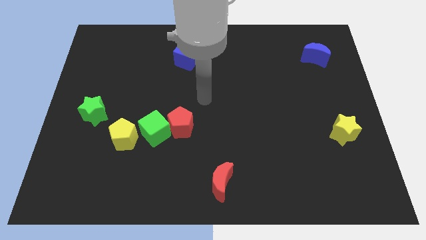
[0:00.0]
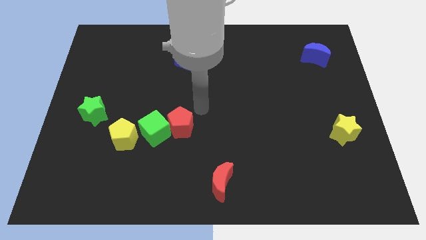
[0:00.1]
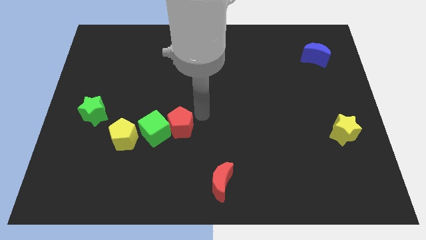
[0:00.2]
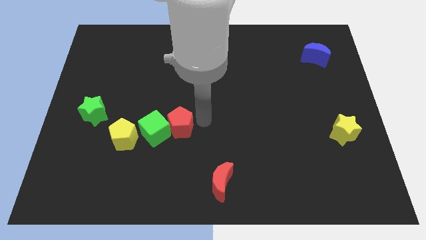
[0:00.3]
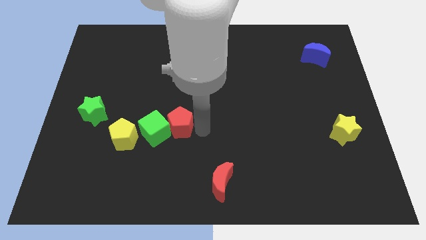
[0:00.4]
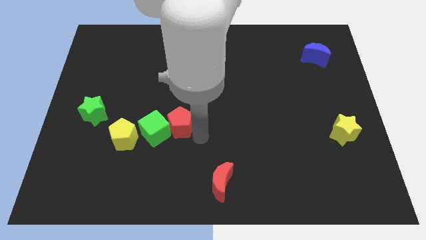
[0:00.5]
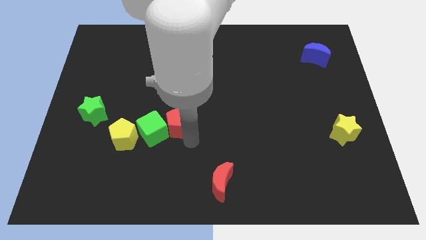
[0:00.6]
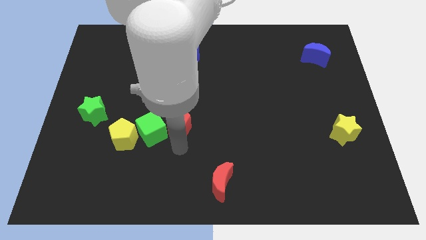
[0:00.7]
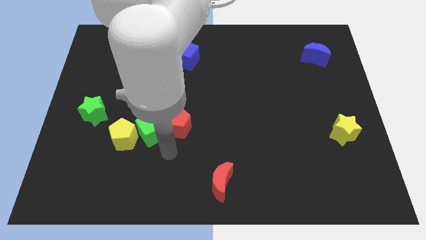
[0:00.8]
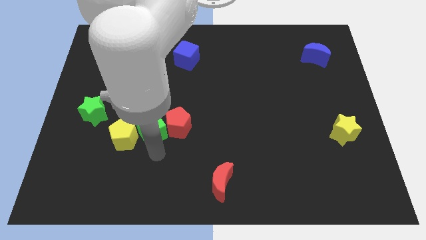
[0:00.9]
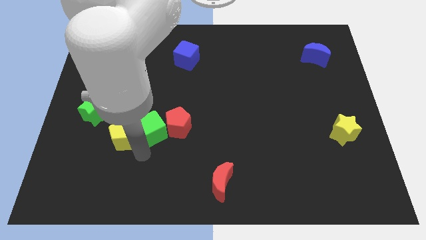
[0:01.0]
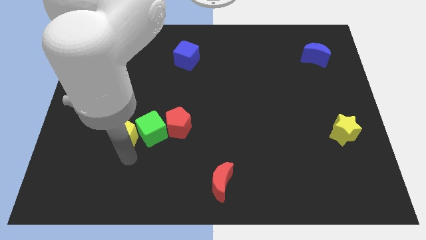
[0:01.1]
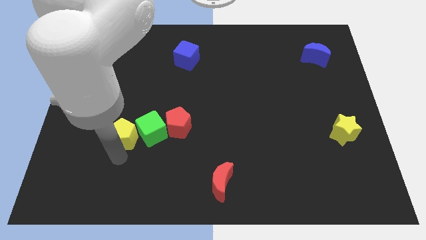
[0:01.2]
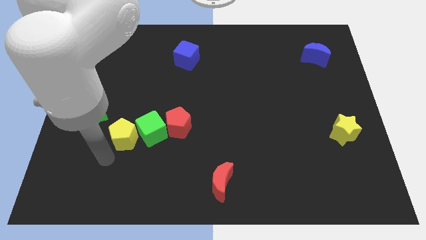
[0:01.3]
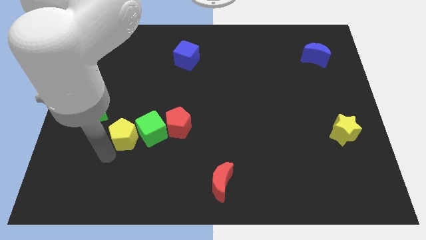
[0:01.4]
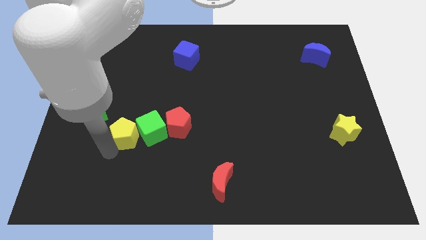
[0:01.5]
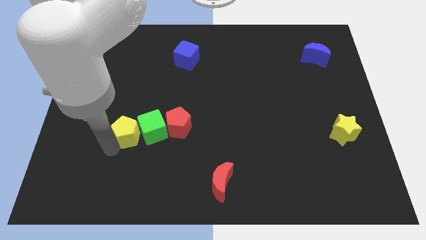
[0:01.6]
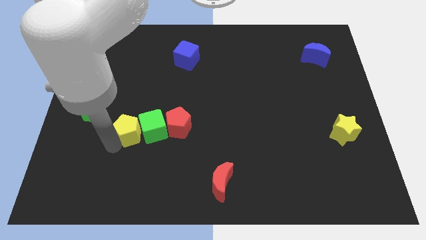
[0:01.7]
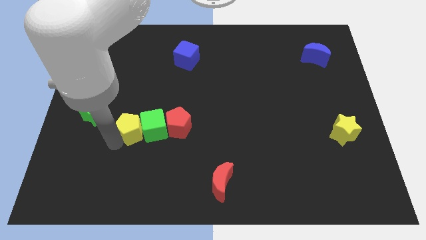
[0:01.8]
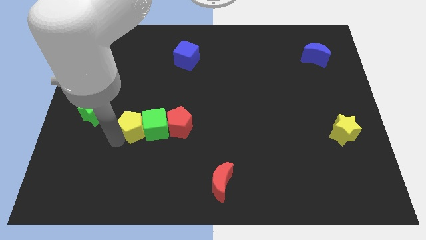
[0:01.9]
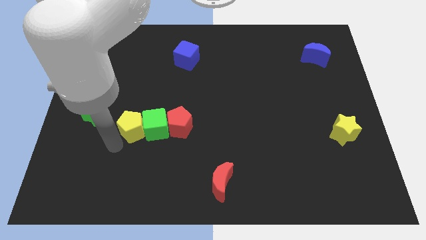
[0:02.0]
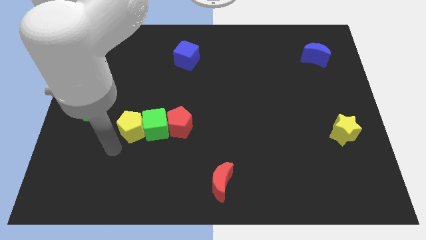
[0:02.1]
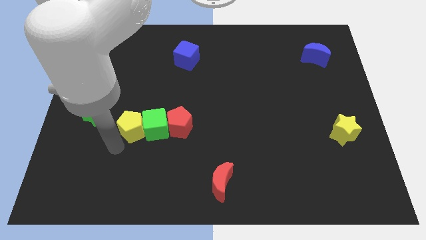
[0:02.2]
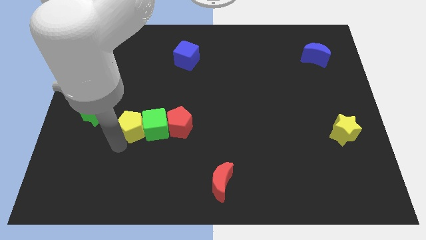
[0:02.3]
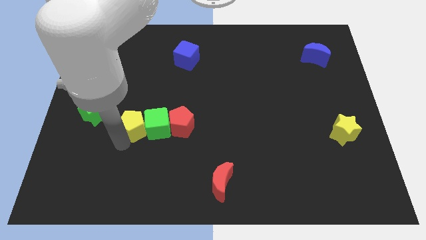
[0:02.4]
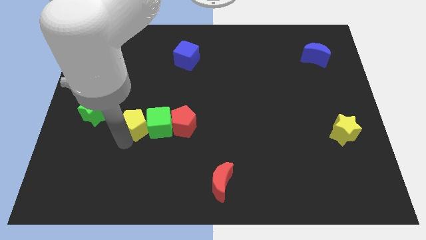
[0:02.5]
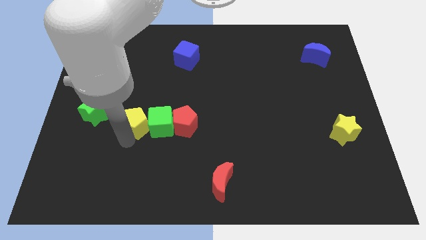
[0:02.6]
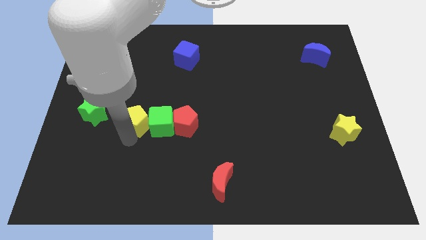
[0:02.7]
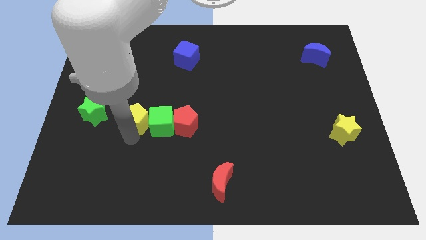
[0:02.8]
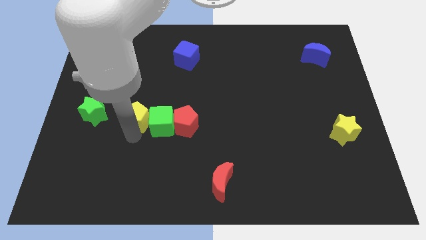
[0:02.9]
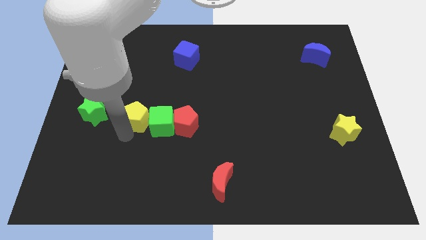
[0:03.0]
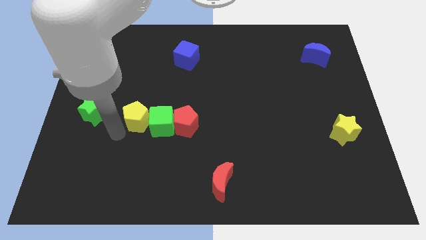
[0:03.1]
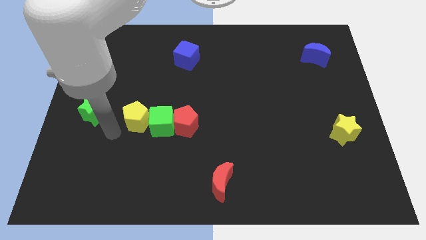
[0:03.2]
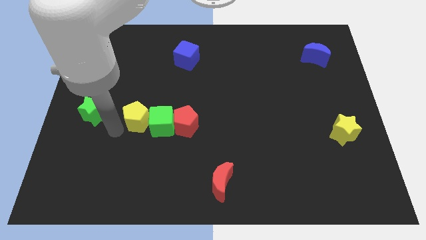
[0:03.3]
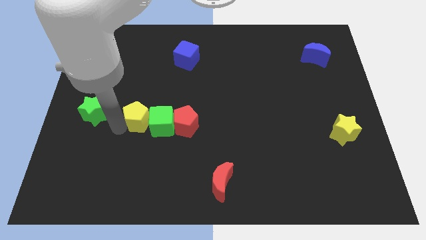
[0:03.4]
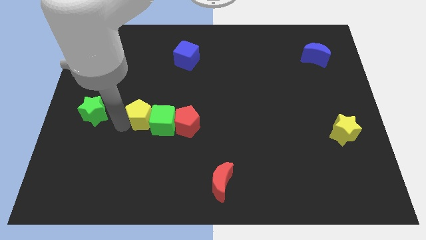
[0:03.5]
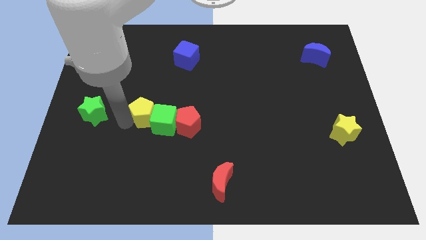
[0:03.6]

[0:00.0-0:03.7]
slide the yellow pentagon somewhat up and right

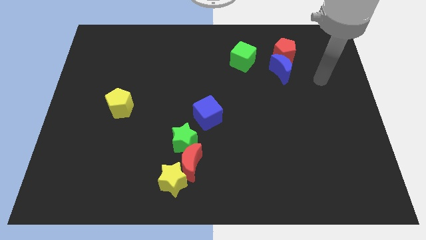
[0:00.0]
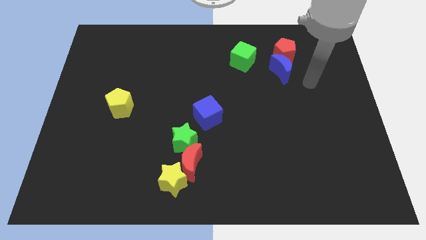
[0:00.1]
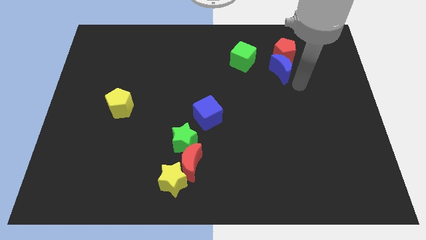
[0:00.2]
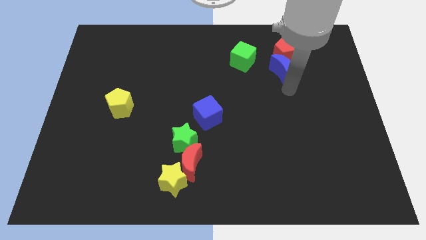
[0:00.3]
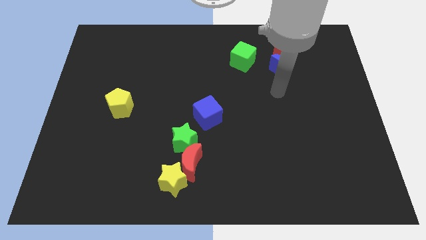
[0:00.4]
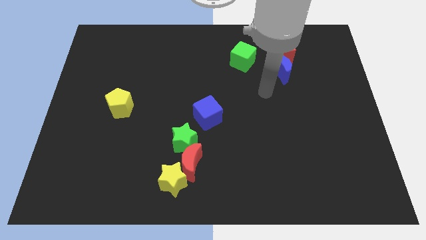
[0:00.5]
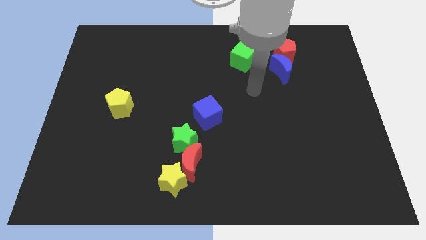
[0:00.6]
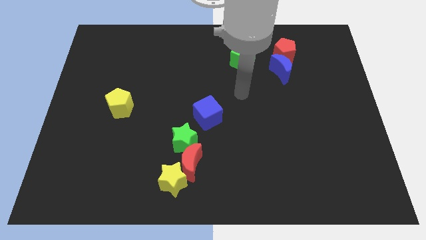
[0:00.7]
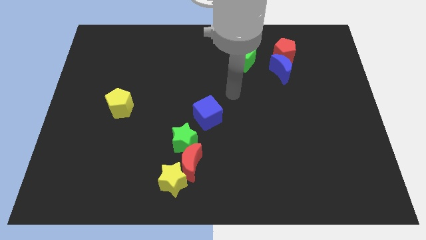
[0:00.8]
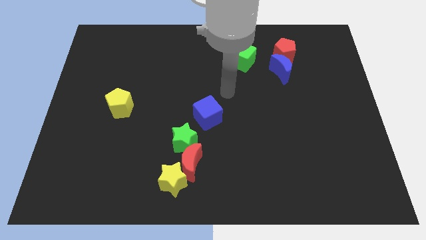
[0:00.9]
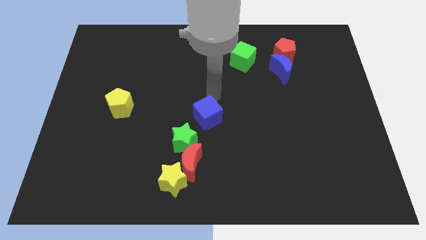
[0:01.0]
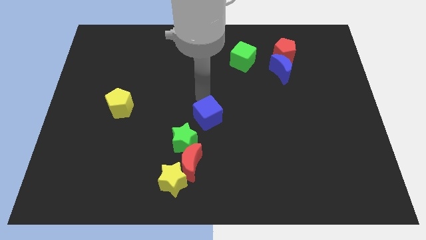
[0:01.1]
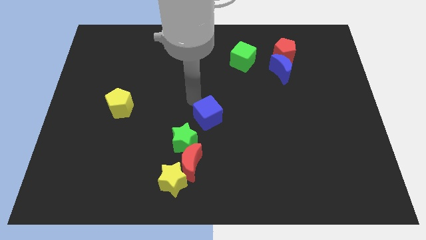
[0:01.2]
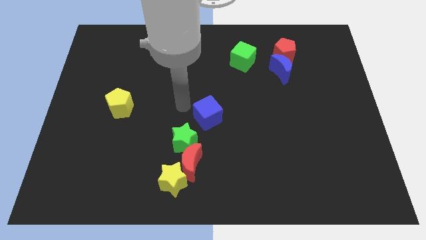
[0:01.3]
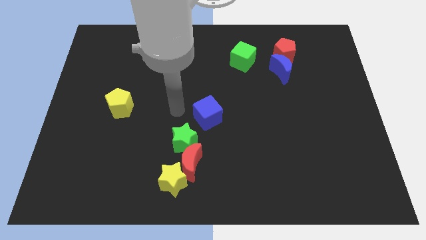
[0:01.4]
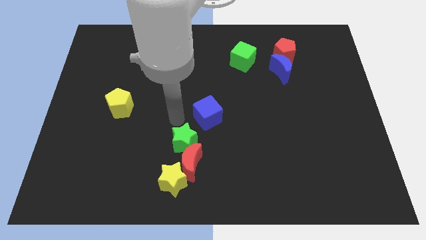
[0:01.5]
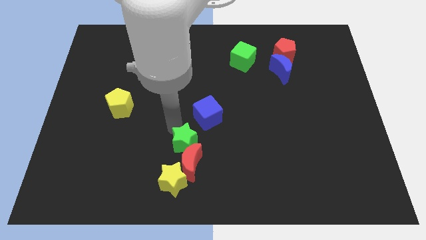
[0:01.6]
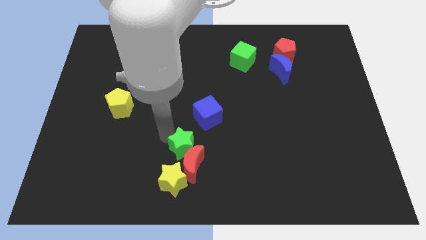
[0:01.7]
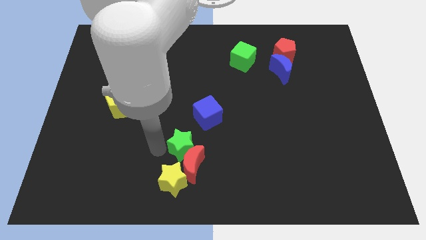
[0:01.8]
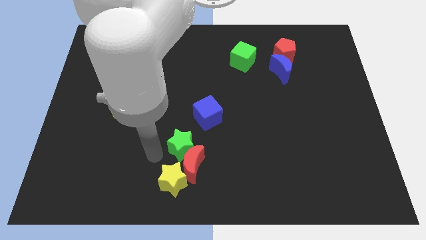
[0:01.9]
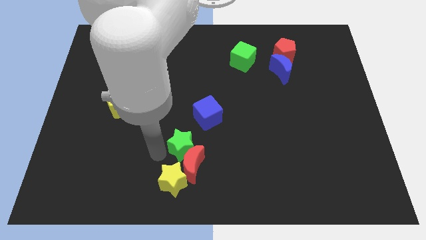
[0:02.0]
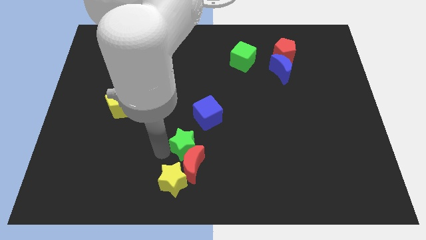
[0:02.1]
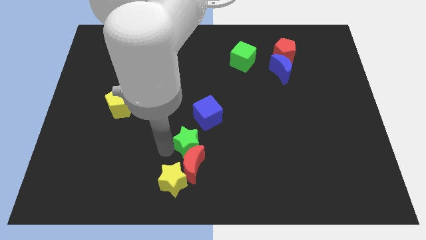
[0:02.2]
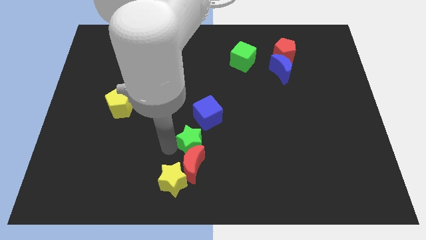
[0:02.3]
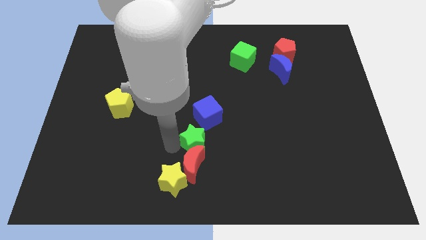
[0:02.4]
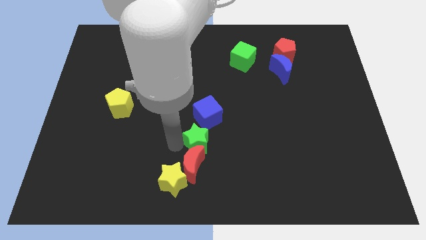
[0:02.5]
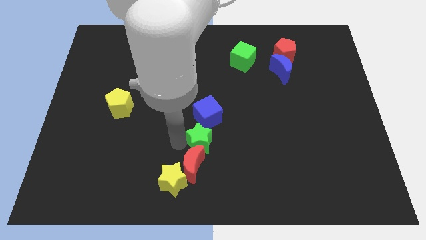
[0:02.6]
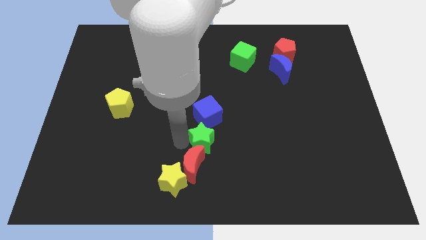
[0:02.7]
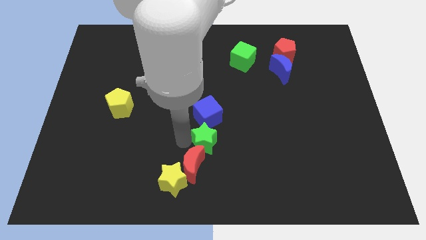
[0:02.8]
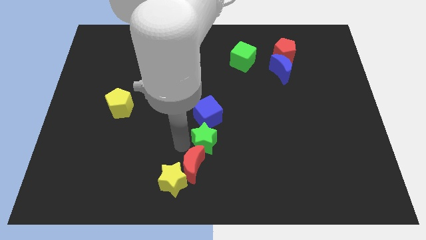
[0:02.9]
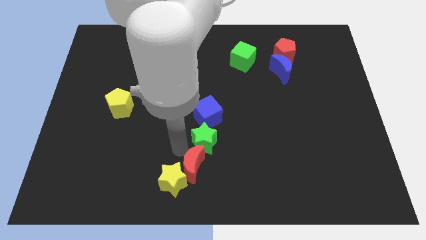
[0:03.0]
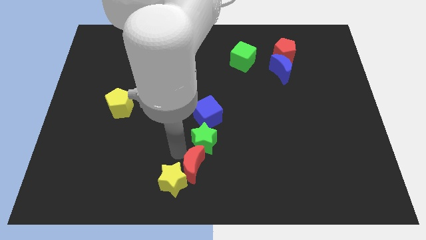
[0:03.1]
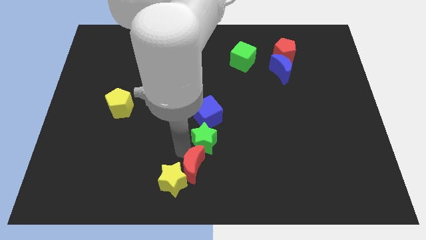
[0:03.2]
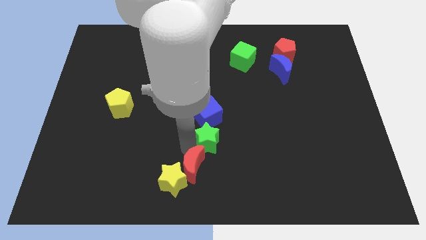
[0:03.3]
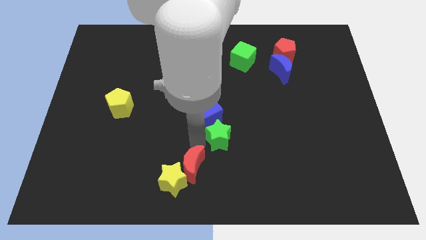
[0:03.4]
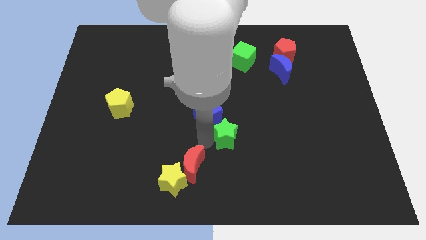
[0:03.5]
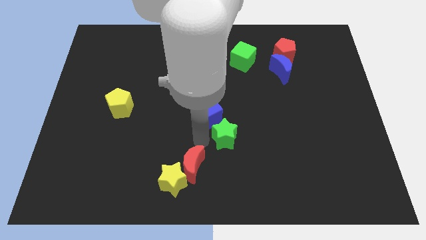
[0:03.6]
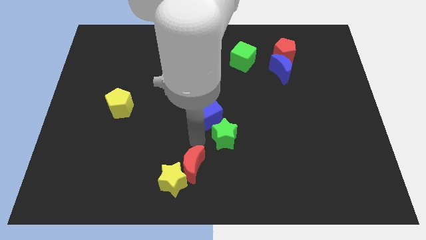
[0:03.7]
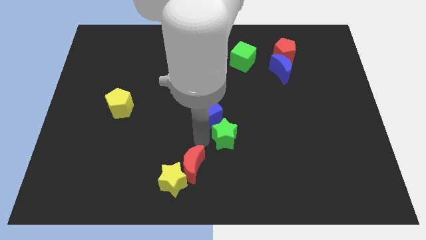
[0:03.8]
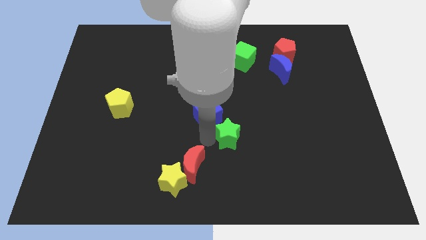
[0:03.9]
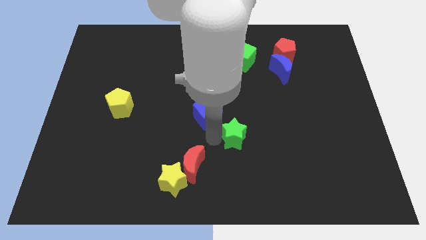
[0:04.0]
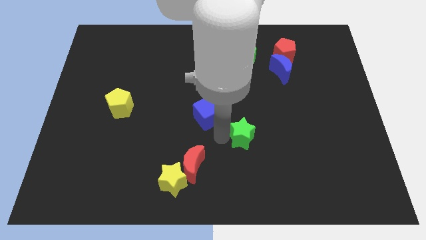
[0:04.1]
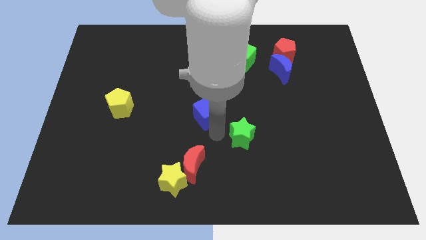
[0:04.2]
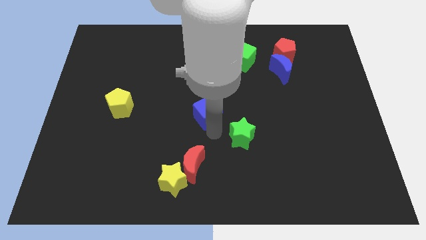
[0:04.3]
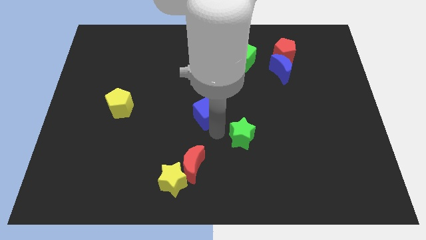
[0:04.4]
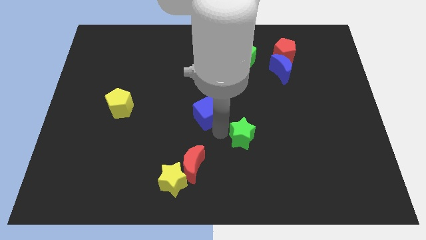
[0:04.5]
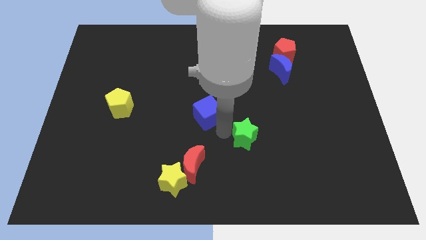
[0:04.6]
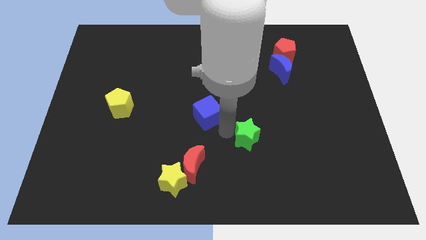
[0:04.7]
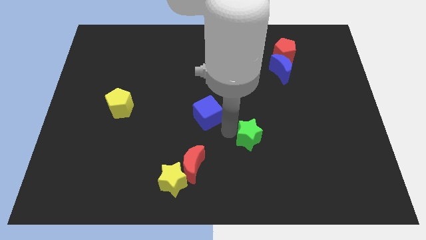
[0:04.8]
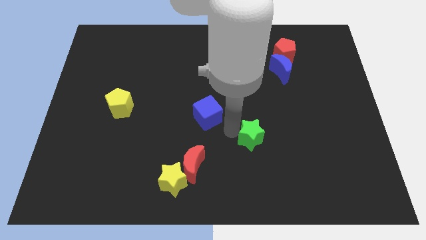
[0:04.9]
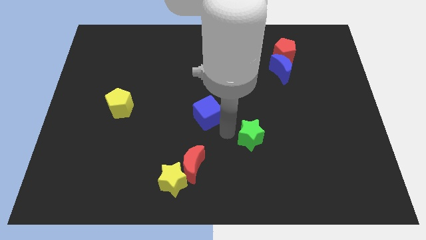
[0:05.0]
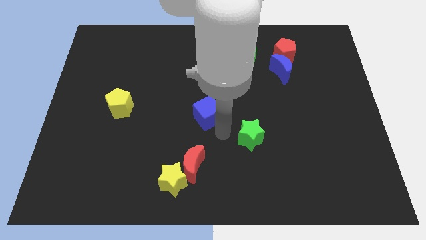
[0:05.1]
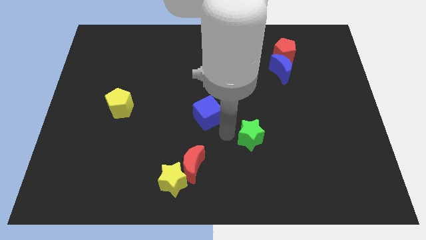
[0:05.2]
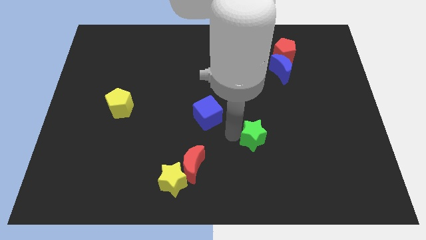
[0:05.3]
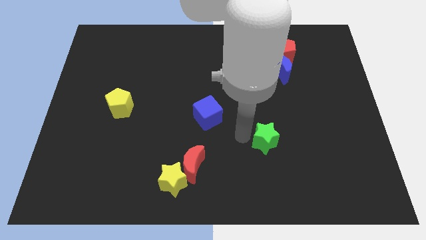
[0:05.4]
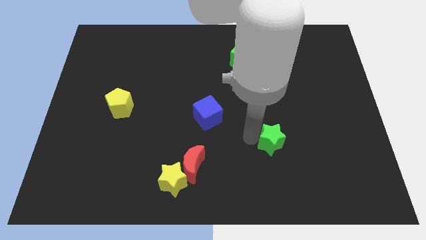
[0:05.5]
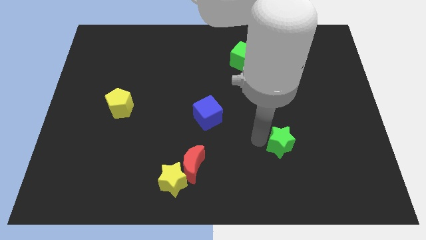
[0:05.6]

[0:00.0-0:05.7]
move the green star to the right
